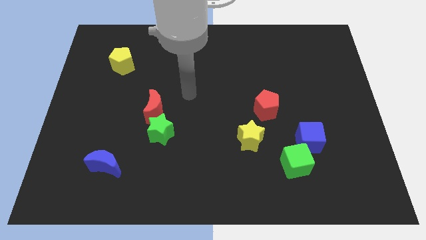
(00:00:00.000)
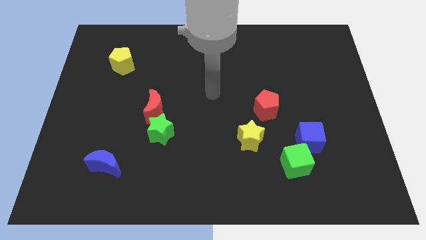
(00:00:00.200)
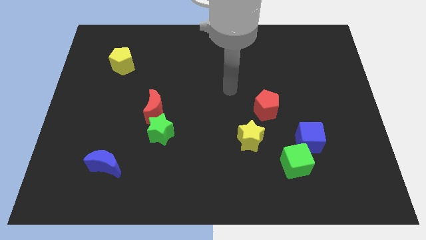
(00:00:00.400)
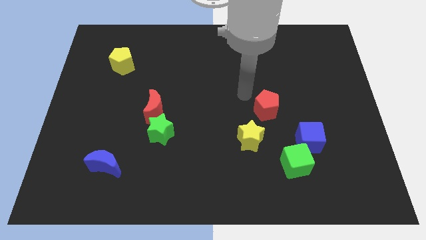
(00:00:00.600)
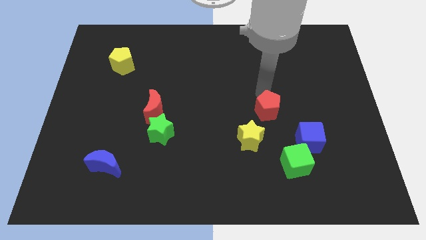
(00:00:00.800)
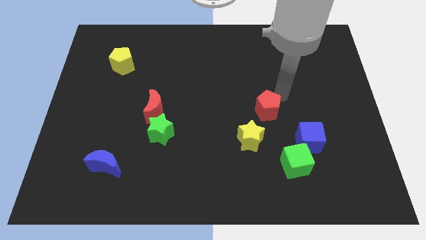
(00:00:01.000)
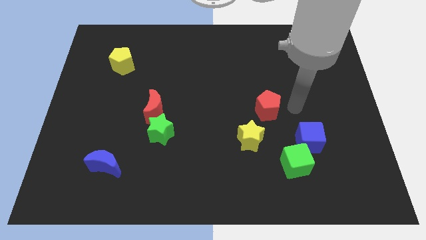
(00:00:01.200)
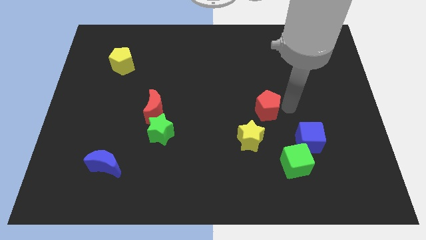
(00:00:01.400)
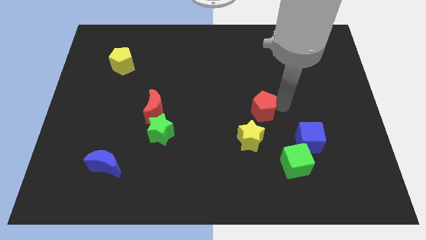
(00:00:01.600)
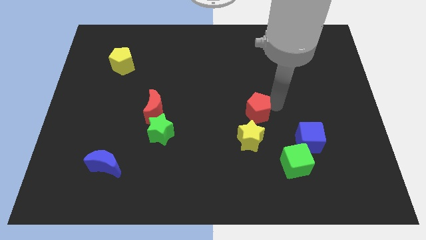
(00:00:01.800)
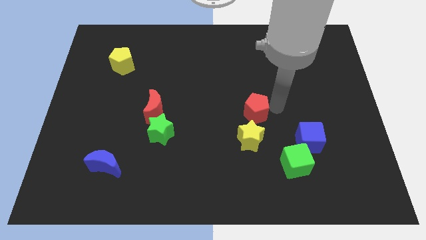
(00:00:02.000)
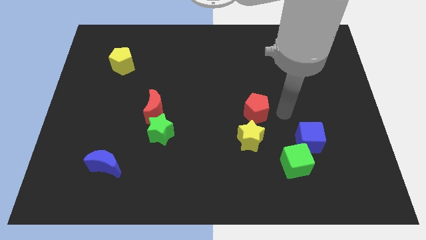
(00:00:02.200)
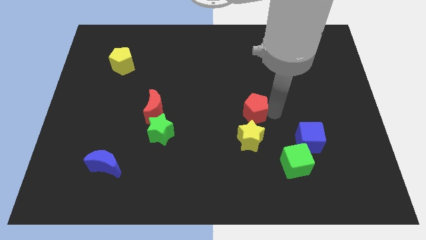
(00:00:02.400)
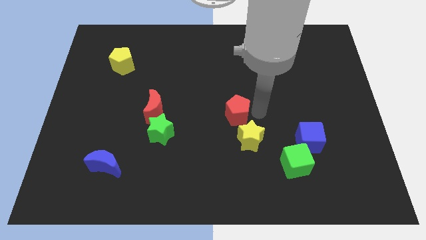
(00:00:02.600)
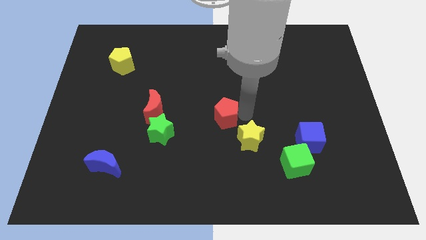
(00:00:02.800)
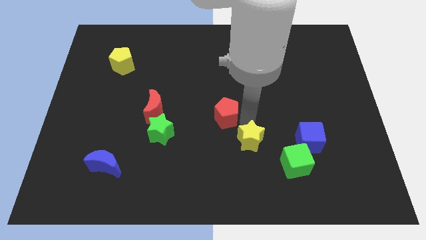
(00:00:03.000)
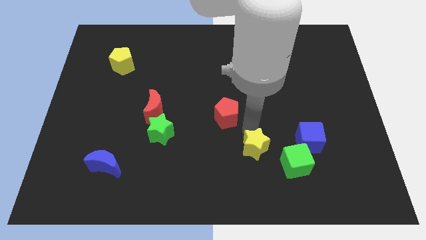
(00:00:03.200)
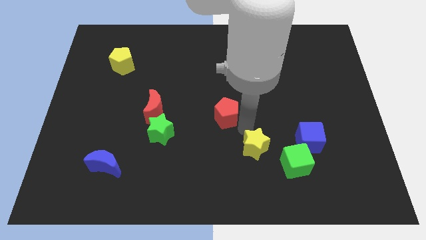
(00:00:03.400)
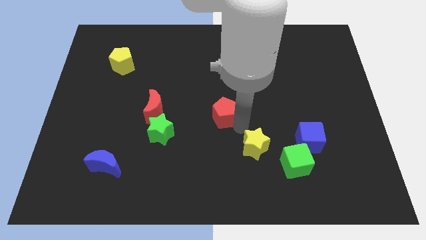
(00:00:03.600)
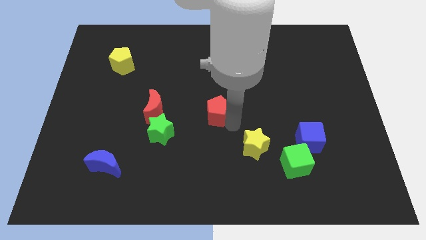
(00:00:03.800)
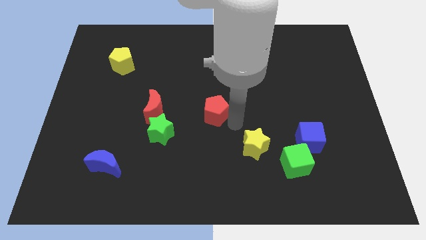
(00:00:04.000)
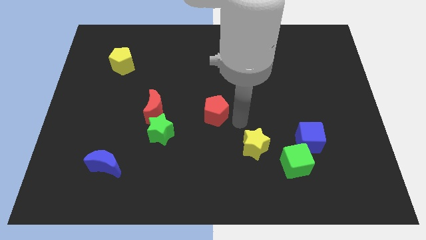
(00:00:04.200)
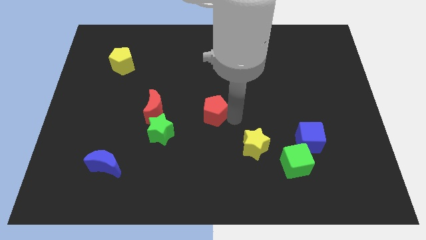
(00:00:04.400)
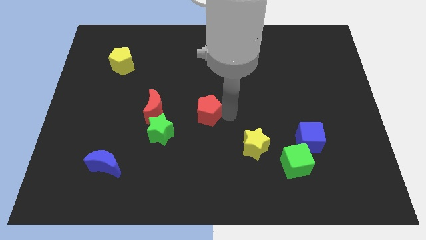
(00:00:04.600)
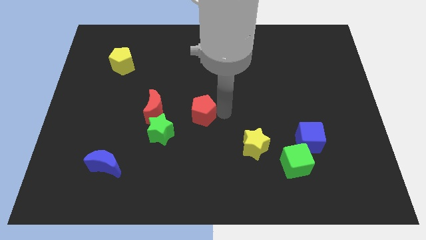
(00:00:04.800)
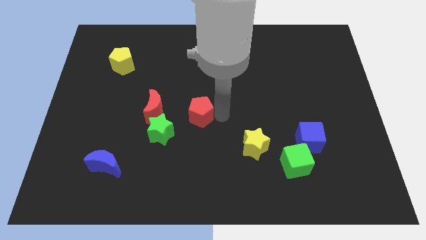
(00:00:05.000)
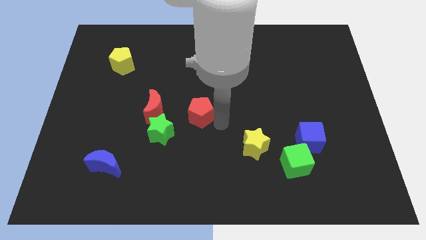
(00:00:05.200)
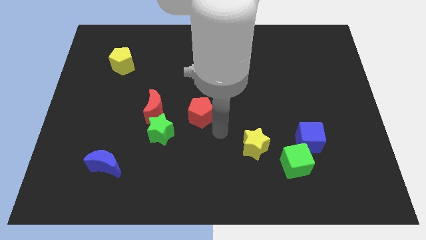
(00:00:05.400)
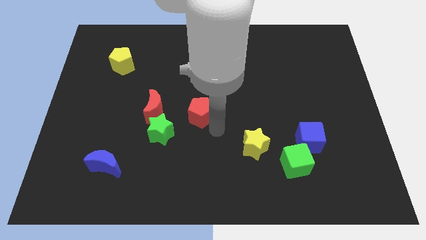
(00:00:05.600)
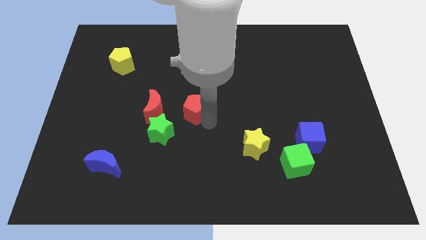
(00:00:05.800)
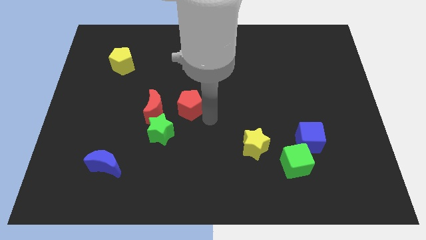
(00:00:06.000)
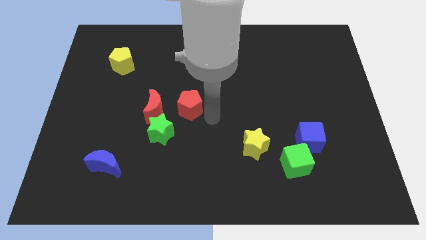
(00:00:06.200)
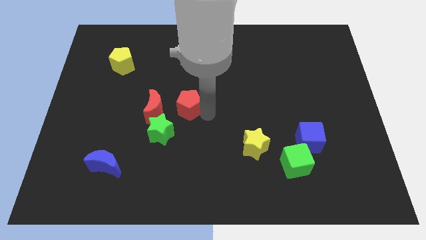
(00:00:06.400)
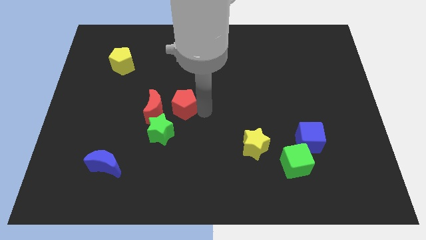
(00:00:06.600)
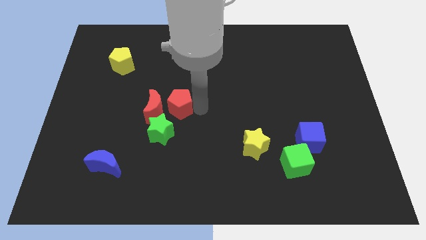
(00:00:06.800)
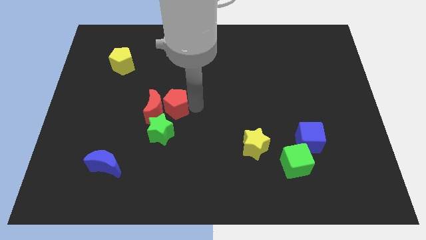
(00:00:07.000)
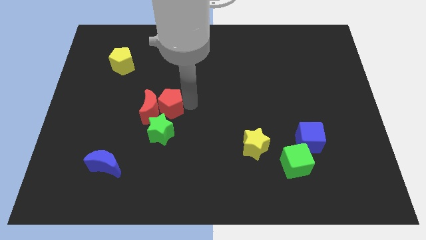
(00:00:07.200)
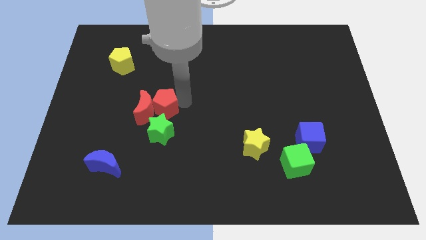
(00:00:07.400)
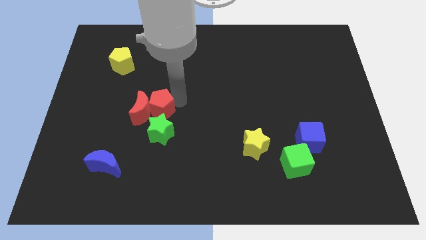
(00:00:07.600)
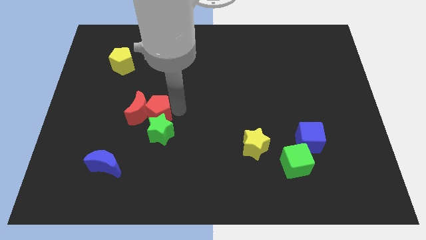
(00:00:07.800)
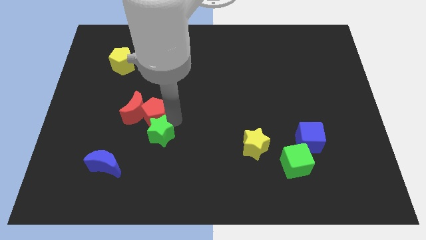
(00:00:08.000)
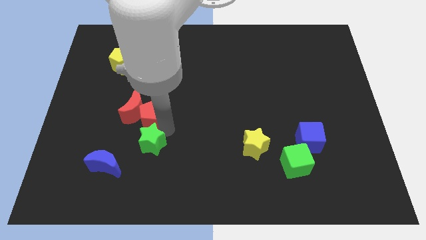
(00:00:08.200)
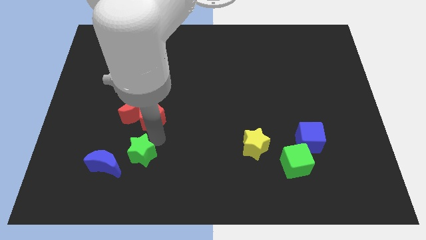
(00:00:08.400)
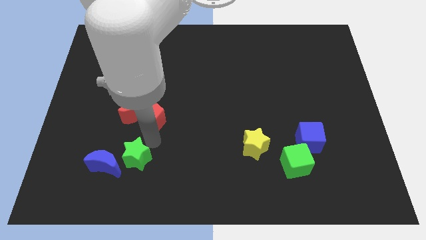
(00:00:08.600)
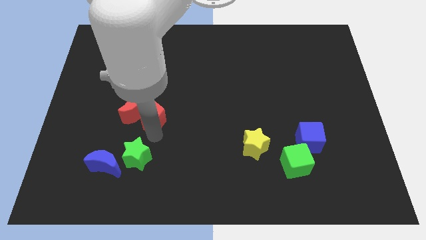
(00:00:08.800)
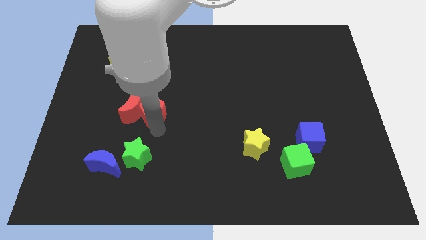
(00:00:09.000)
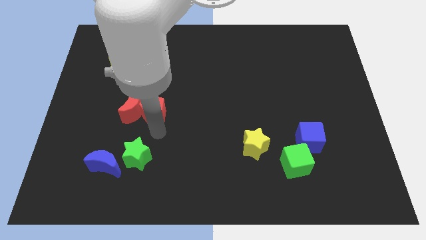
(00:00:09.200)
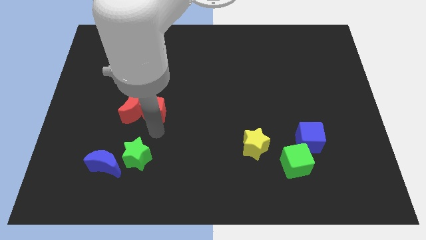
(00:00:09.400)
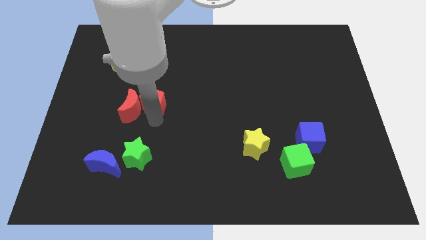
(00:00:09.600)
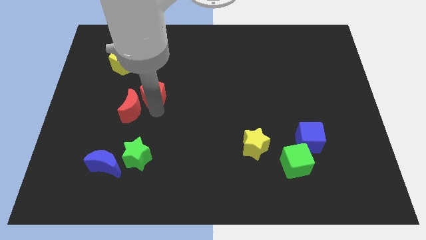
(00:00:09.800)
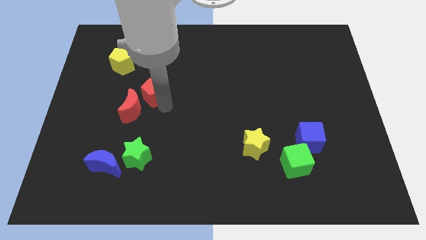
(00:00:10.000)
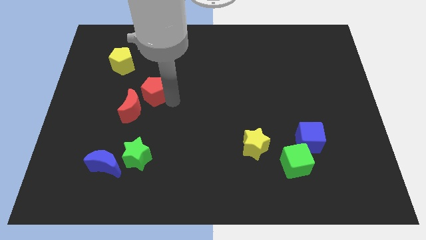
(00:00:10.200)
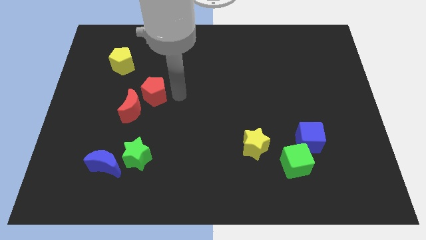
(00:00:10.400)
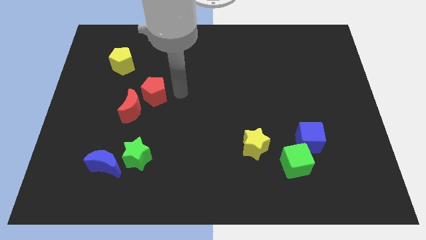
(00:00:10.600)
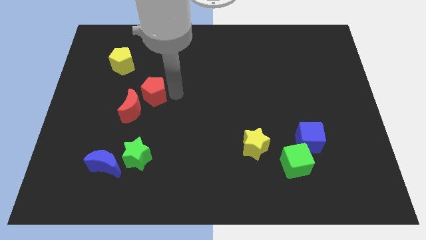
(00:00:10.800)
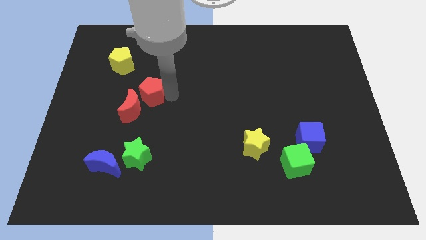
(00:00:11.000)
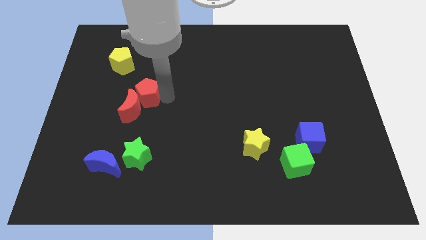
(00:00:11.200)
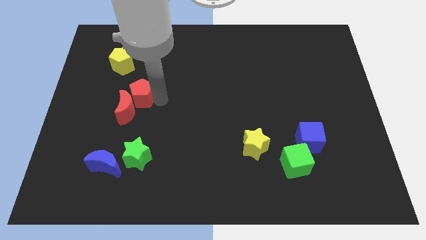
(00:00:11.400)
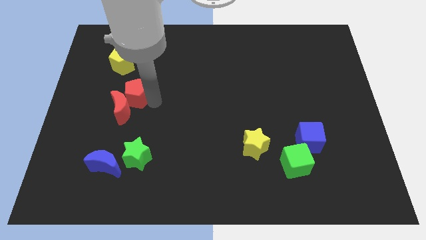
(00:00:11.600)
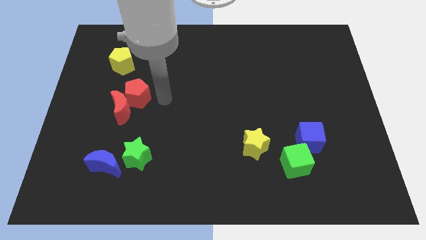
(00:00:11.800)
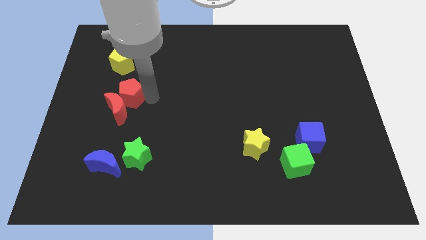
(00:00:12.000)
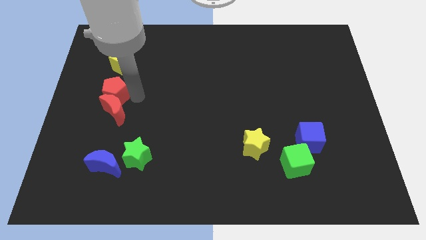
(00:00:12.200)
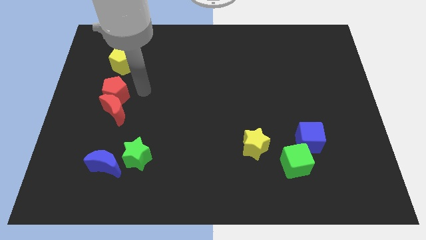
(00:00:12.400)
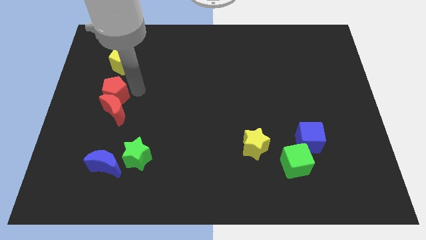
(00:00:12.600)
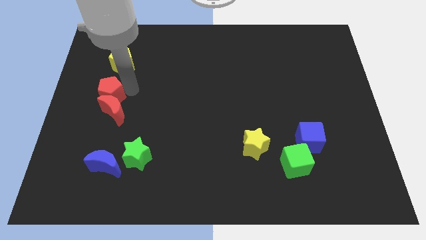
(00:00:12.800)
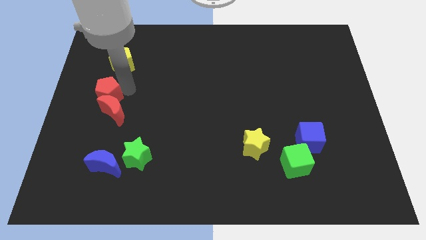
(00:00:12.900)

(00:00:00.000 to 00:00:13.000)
slide the red pentagon to the left side
